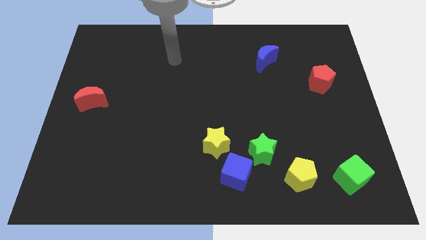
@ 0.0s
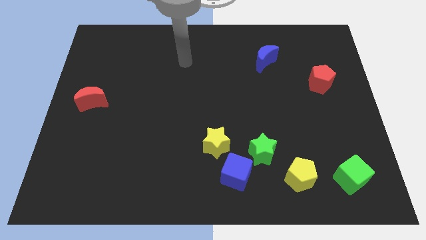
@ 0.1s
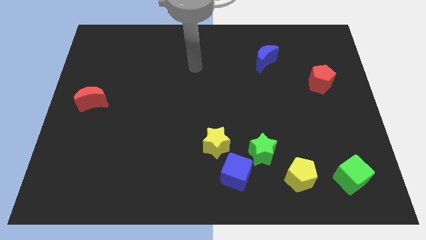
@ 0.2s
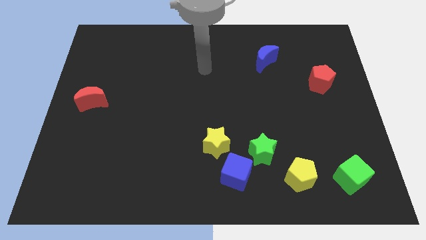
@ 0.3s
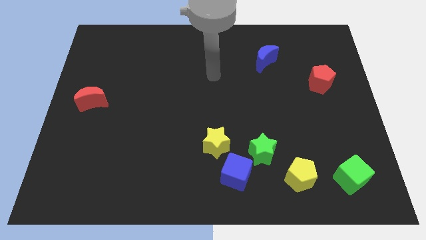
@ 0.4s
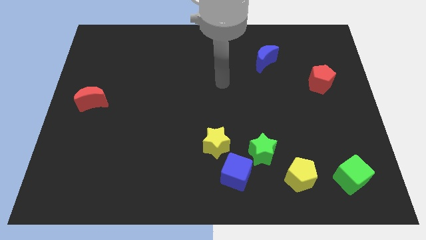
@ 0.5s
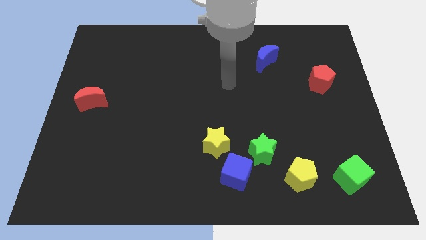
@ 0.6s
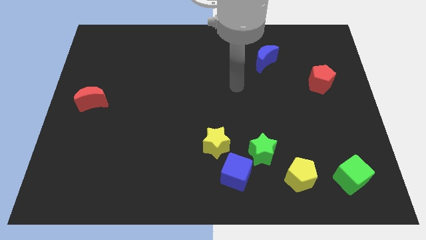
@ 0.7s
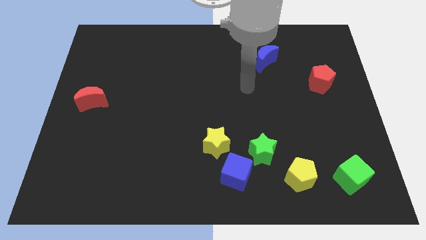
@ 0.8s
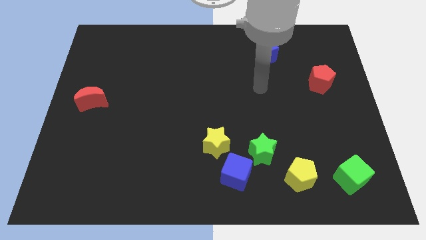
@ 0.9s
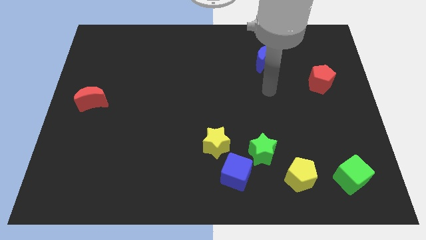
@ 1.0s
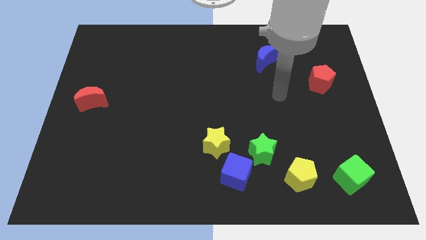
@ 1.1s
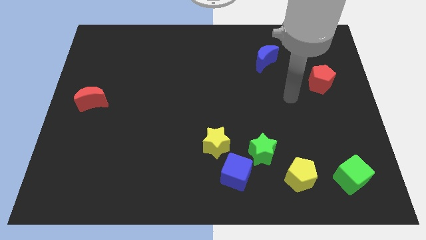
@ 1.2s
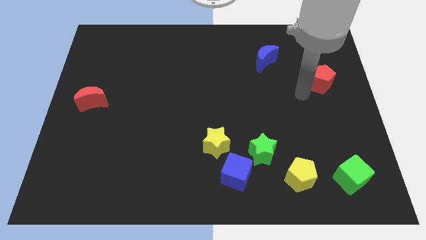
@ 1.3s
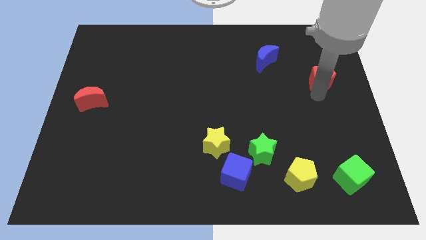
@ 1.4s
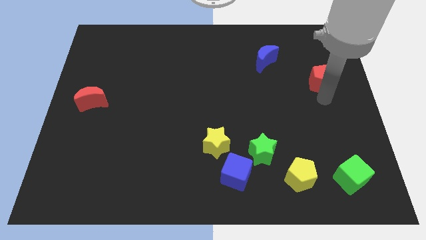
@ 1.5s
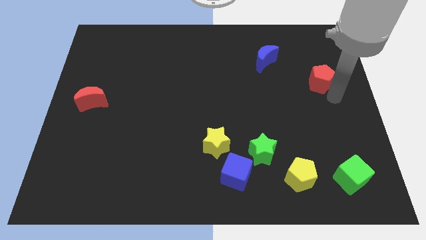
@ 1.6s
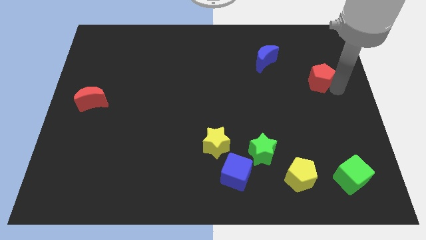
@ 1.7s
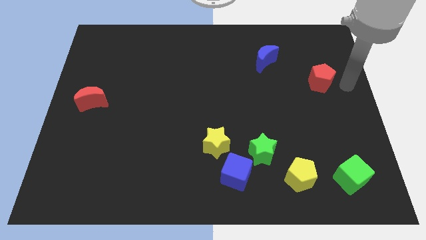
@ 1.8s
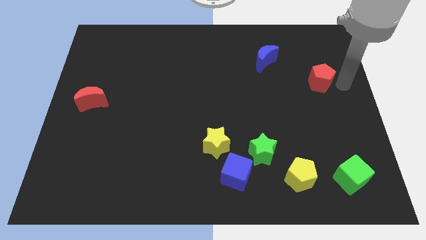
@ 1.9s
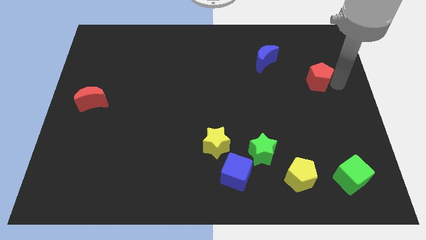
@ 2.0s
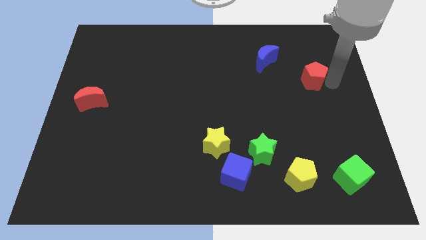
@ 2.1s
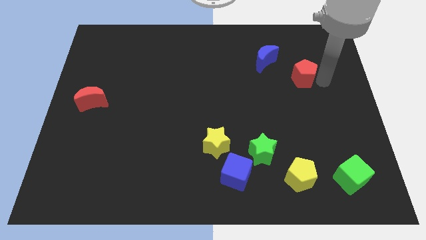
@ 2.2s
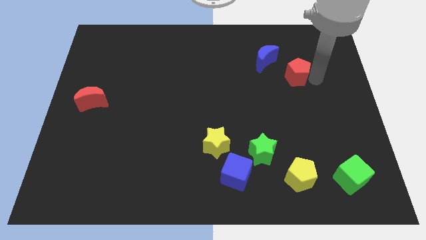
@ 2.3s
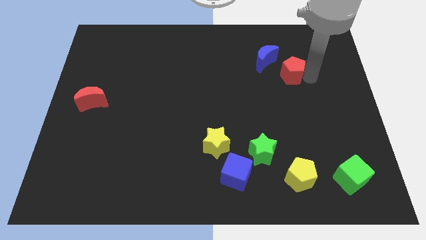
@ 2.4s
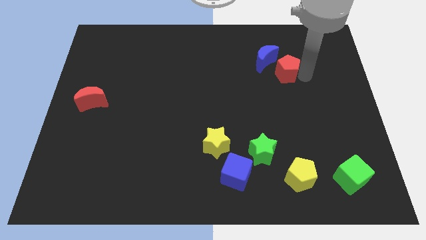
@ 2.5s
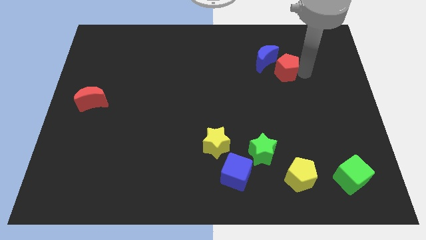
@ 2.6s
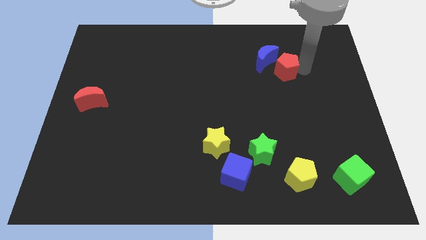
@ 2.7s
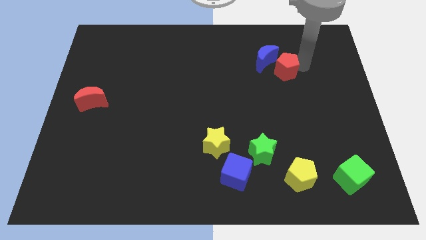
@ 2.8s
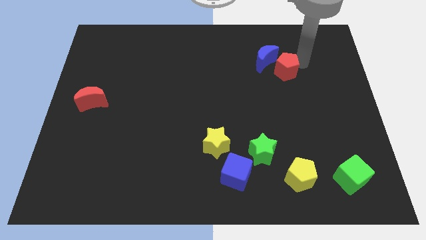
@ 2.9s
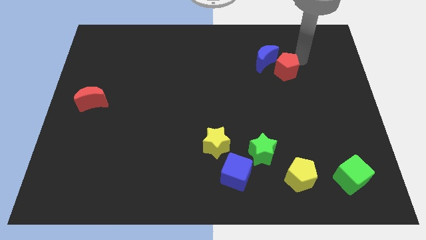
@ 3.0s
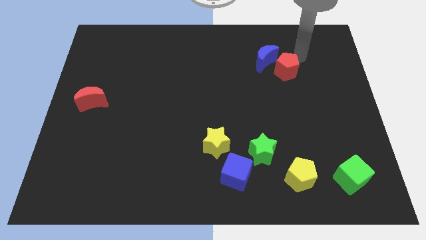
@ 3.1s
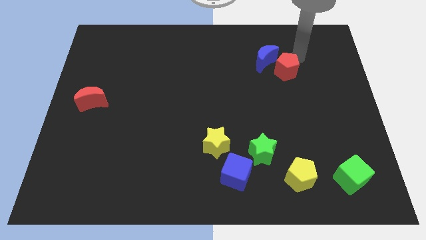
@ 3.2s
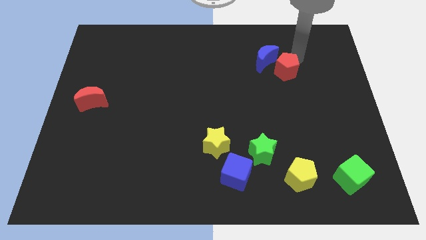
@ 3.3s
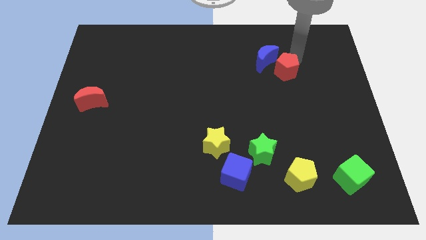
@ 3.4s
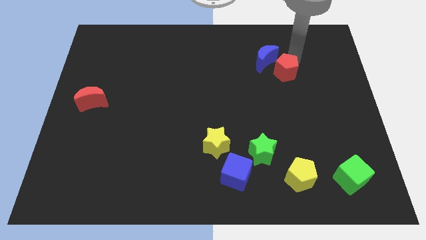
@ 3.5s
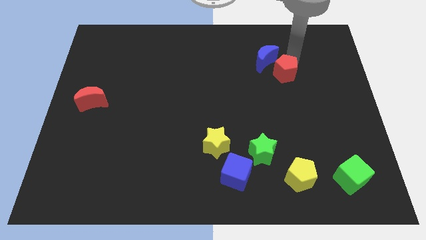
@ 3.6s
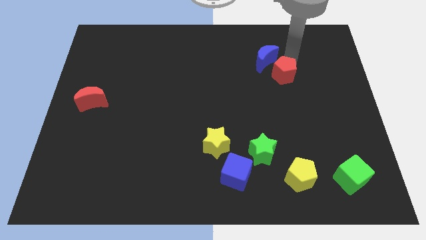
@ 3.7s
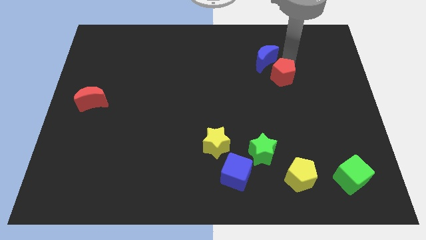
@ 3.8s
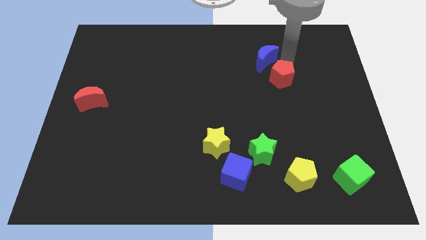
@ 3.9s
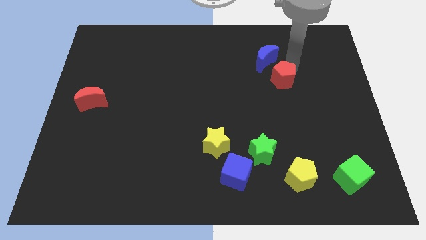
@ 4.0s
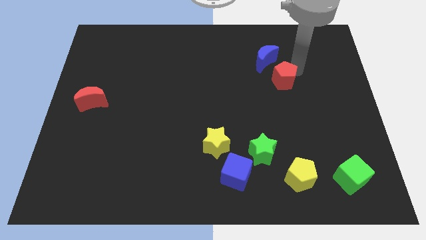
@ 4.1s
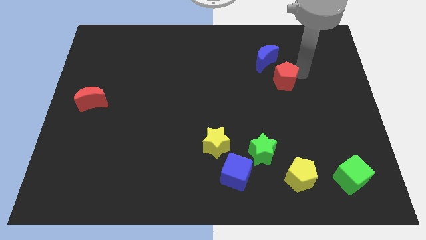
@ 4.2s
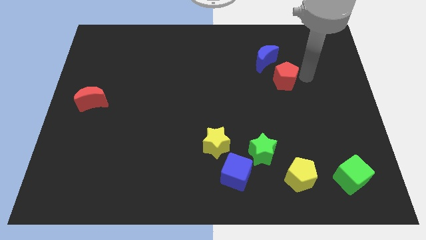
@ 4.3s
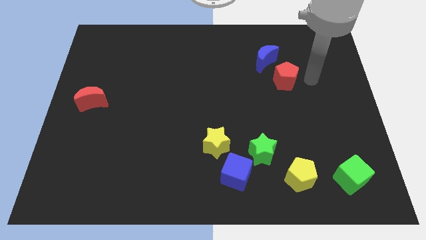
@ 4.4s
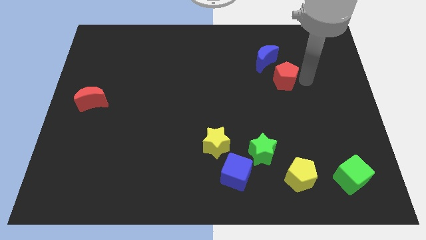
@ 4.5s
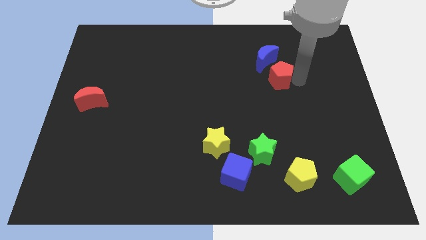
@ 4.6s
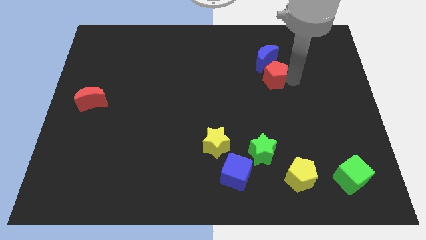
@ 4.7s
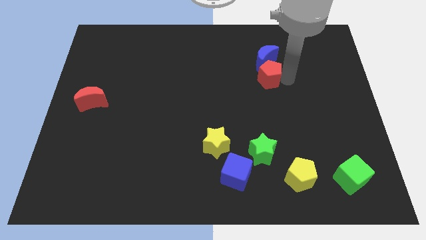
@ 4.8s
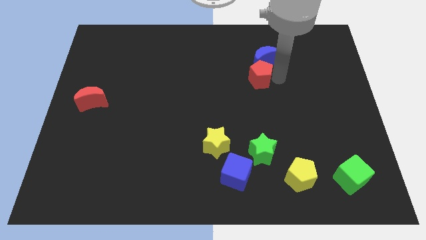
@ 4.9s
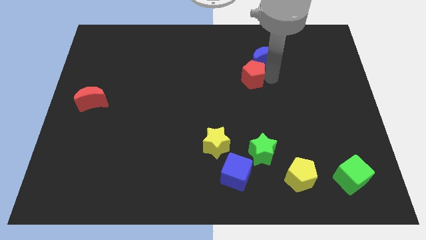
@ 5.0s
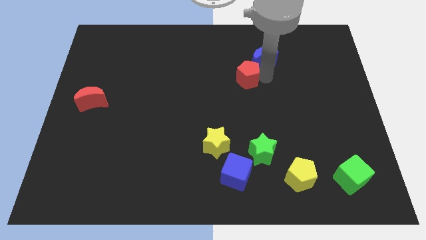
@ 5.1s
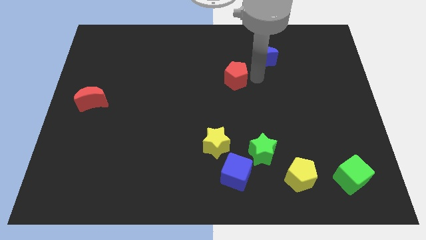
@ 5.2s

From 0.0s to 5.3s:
move the red pentagon to the left

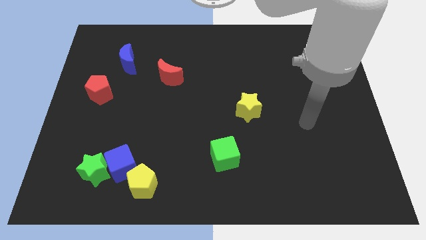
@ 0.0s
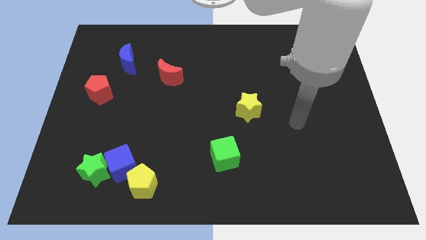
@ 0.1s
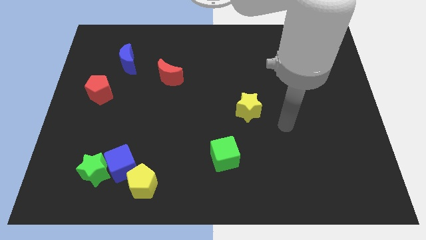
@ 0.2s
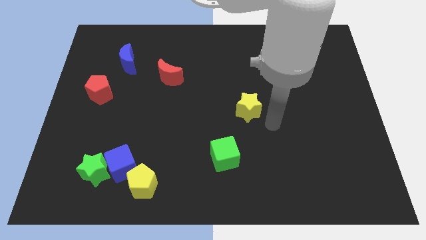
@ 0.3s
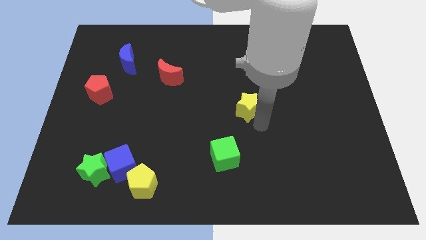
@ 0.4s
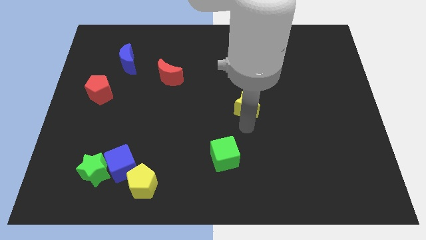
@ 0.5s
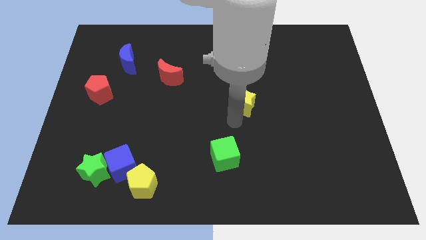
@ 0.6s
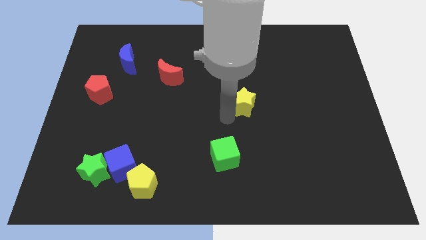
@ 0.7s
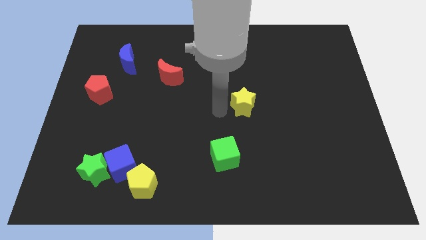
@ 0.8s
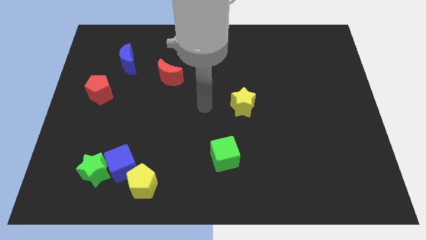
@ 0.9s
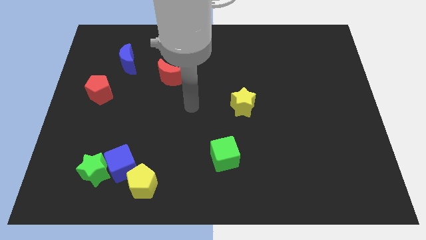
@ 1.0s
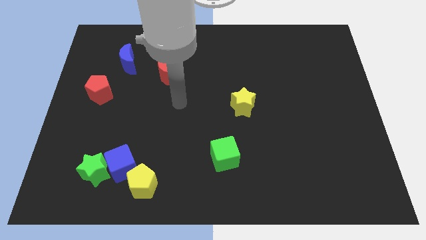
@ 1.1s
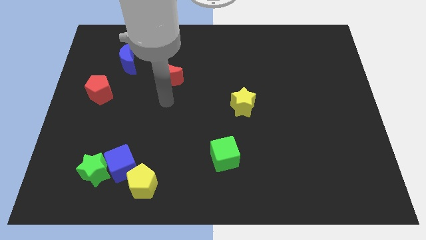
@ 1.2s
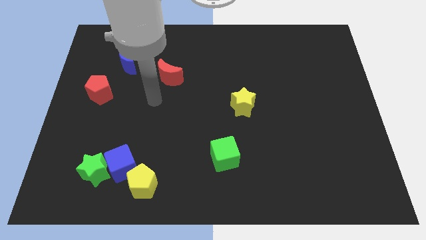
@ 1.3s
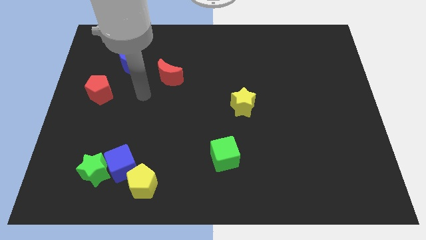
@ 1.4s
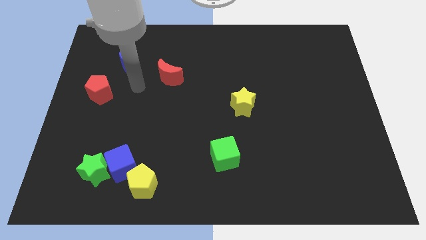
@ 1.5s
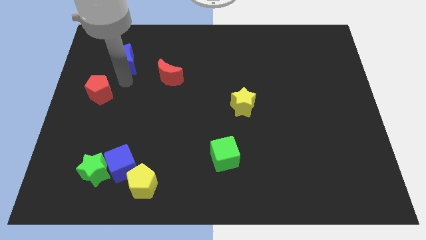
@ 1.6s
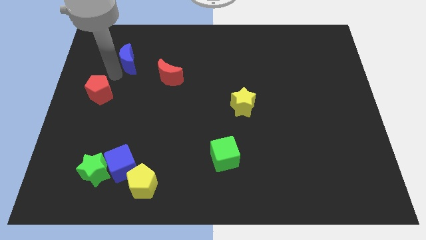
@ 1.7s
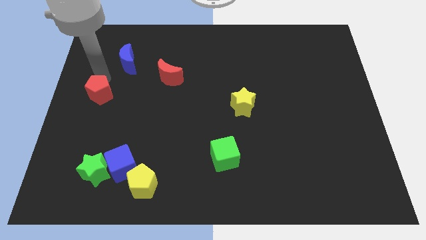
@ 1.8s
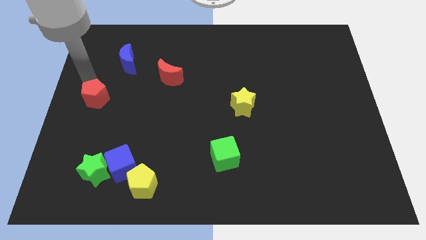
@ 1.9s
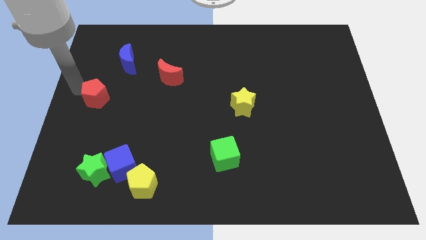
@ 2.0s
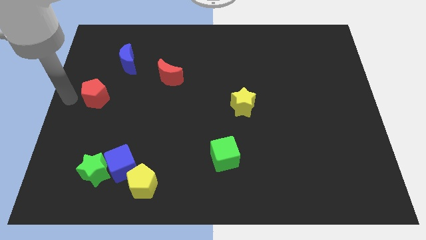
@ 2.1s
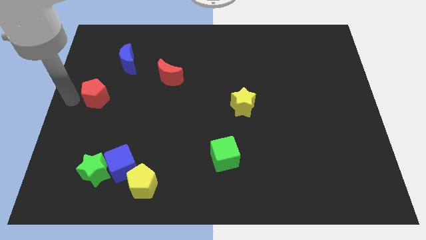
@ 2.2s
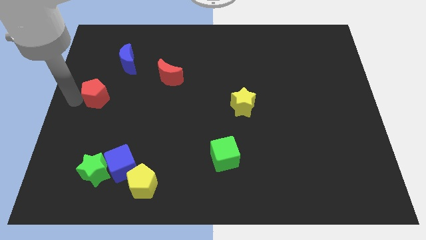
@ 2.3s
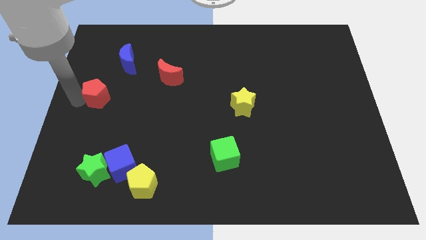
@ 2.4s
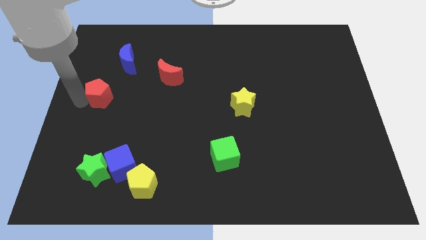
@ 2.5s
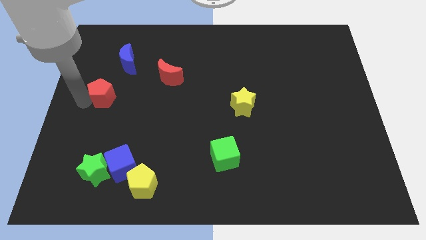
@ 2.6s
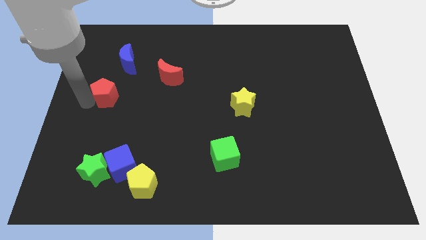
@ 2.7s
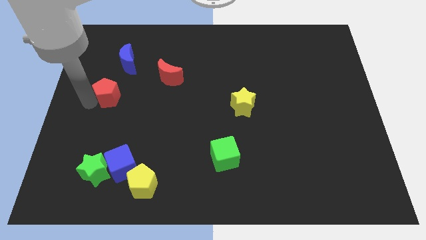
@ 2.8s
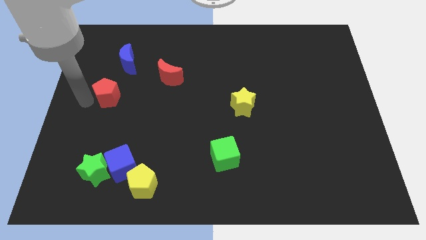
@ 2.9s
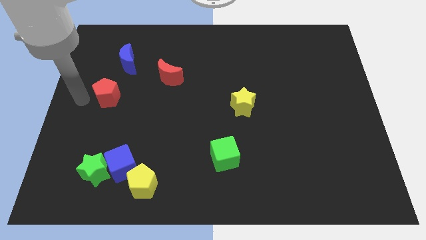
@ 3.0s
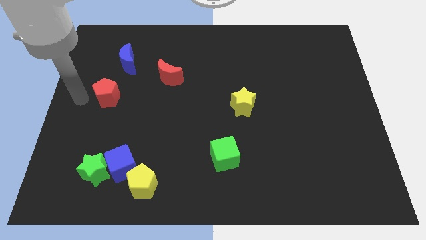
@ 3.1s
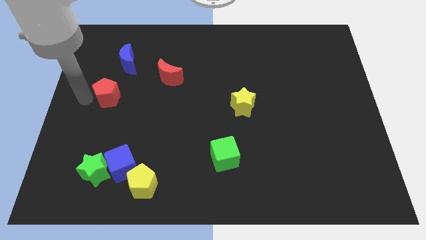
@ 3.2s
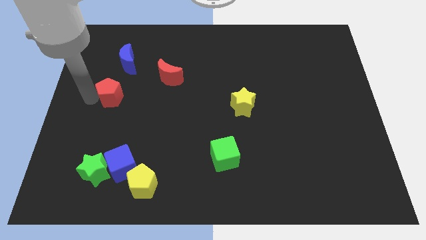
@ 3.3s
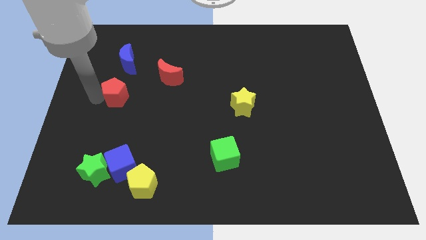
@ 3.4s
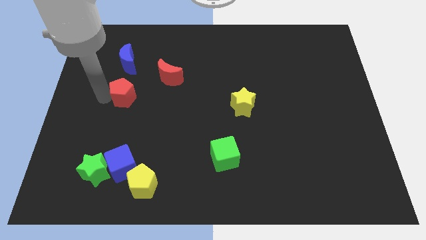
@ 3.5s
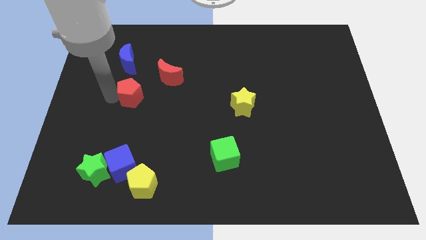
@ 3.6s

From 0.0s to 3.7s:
slightly move the red pentagon to the right
